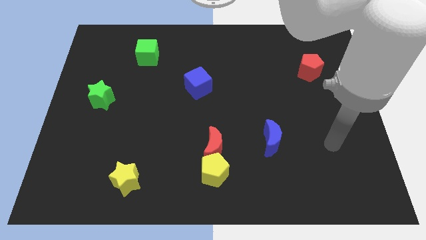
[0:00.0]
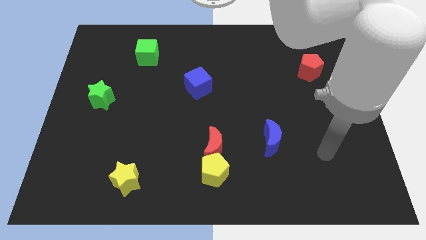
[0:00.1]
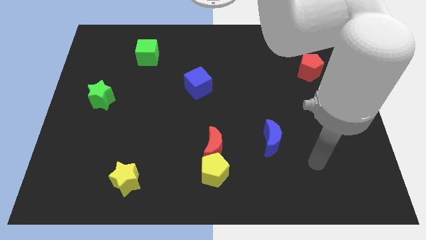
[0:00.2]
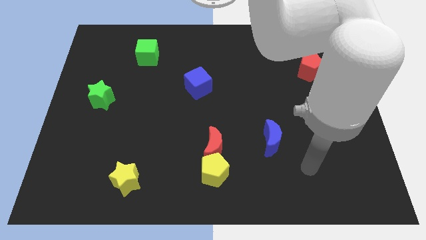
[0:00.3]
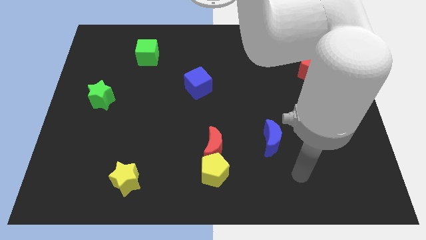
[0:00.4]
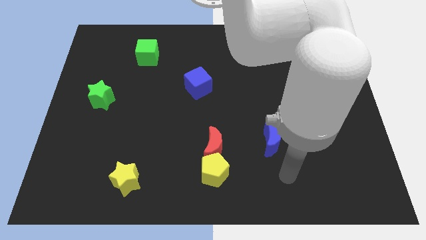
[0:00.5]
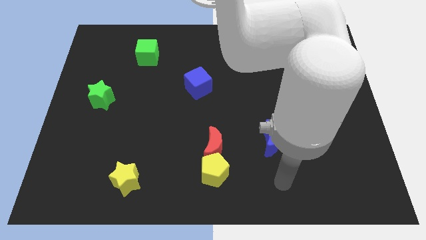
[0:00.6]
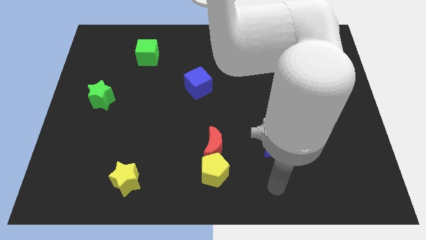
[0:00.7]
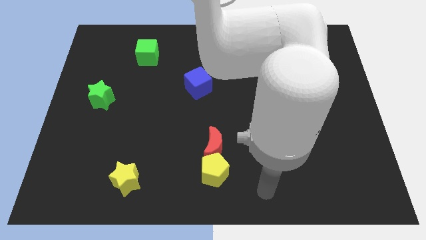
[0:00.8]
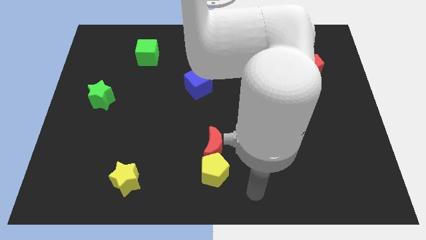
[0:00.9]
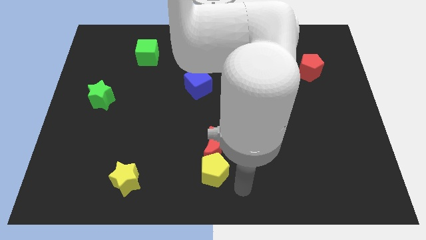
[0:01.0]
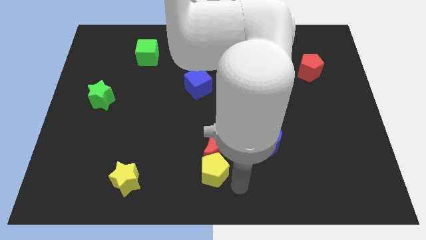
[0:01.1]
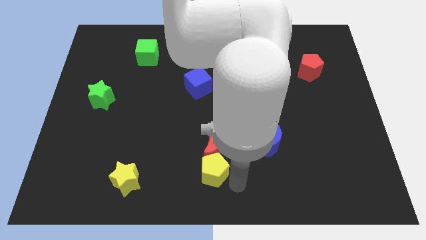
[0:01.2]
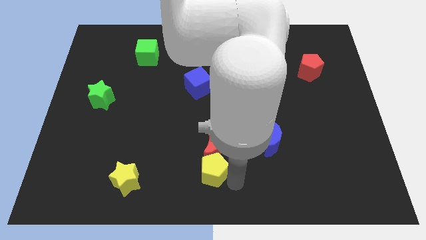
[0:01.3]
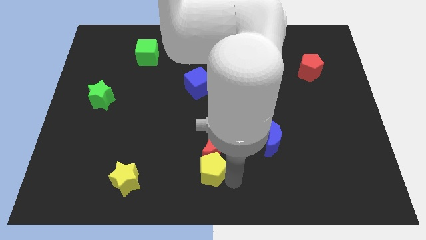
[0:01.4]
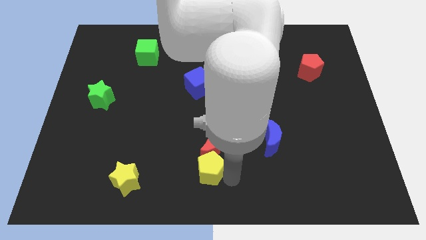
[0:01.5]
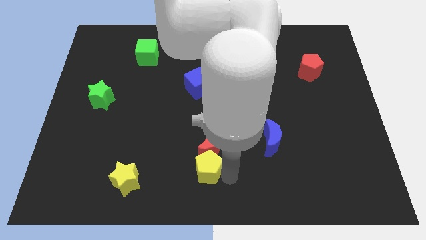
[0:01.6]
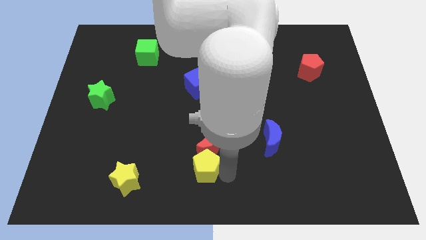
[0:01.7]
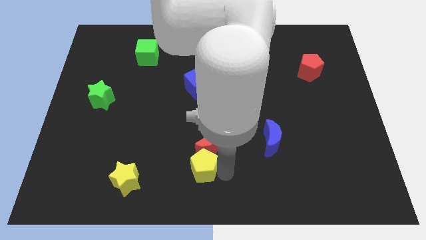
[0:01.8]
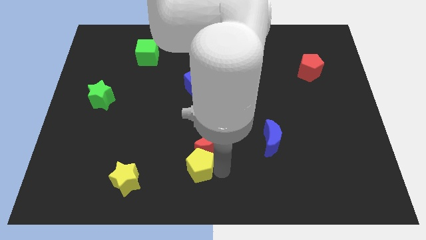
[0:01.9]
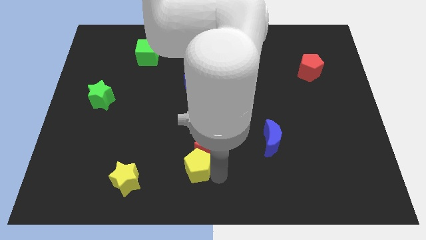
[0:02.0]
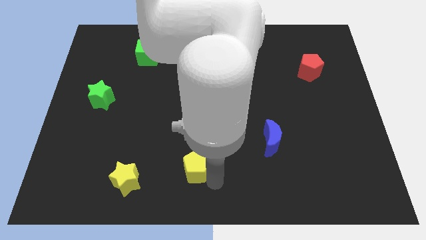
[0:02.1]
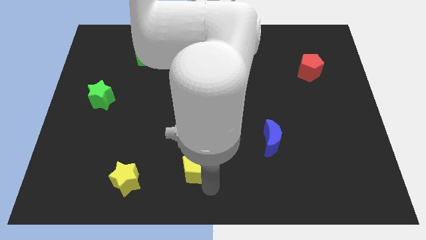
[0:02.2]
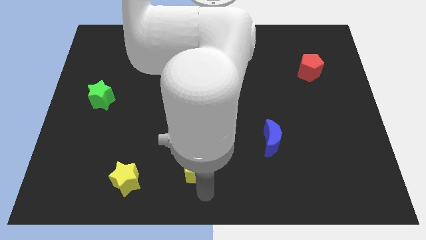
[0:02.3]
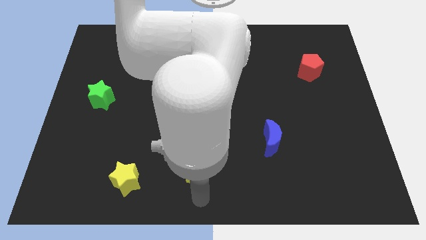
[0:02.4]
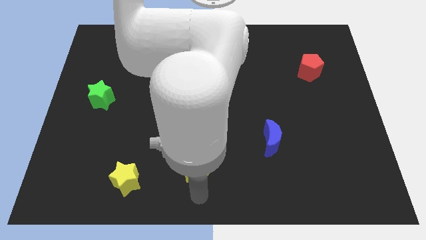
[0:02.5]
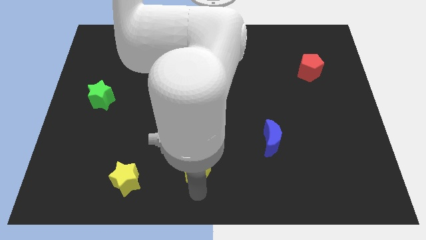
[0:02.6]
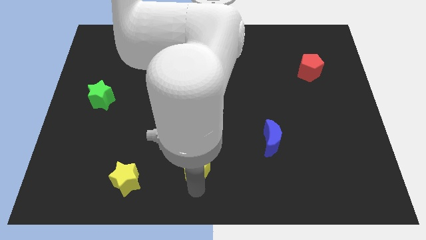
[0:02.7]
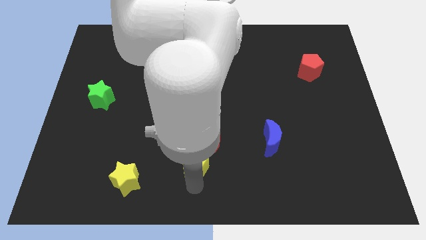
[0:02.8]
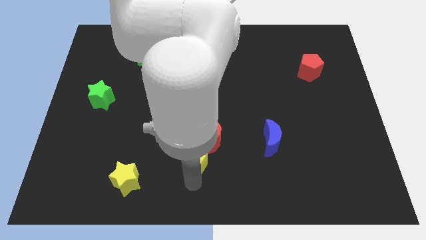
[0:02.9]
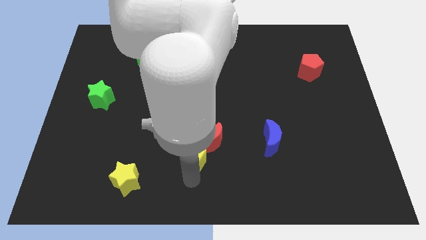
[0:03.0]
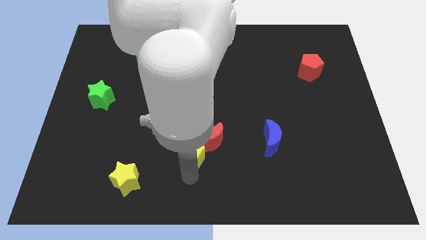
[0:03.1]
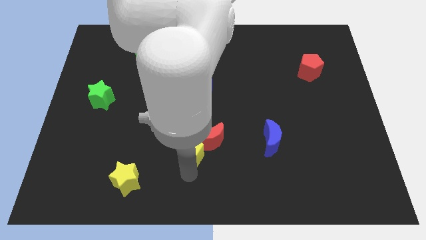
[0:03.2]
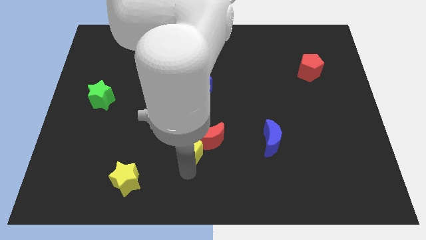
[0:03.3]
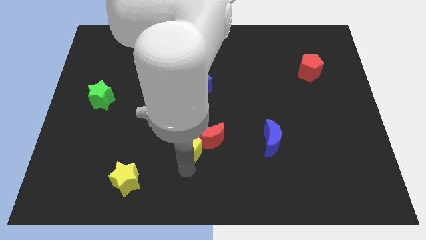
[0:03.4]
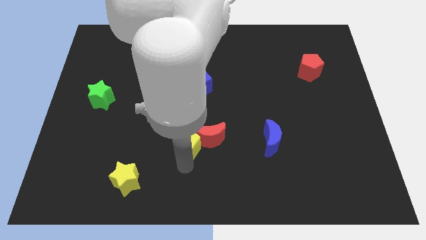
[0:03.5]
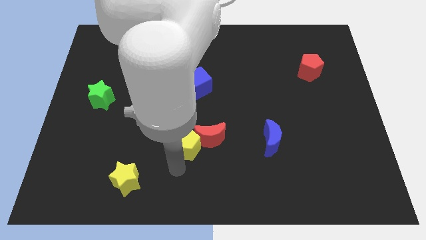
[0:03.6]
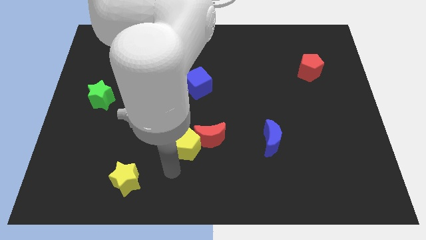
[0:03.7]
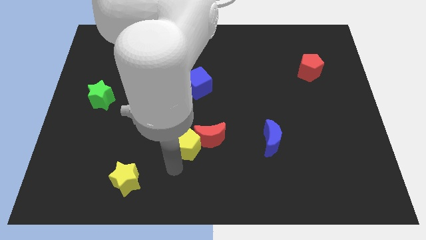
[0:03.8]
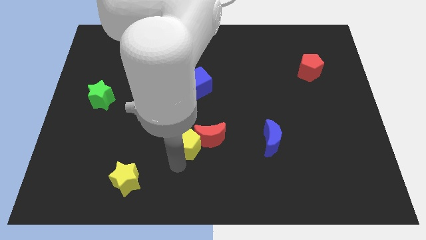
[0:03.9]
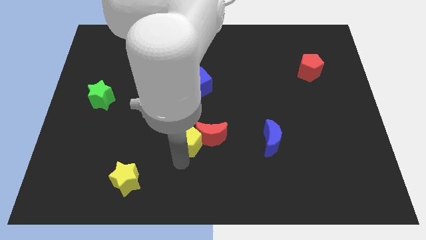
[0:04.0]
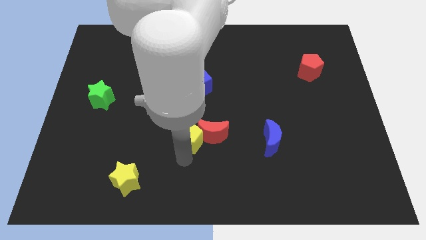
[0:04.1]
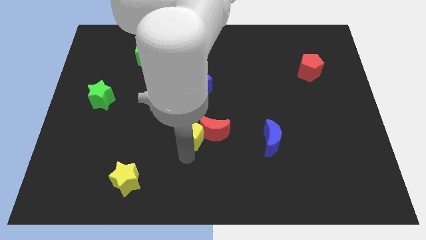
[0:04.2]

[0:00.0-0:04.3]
slightly slide the yellow pentagon up

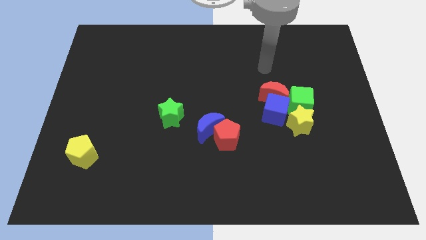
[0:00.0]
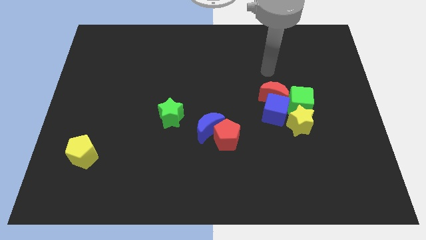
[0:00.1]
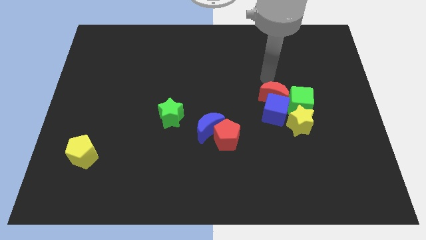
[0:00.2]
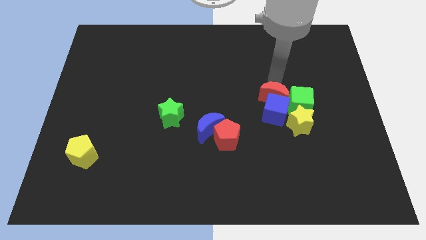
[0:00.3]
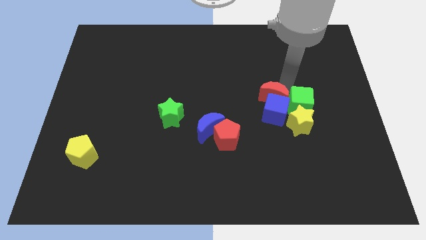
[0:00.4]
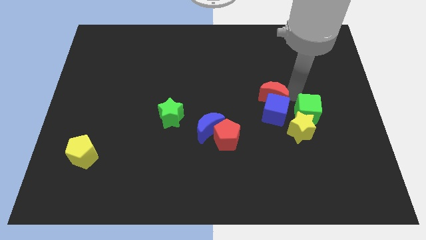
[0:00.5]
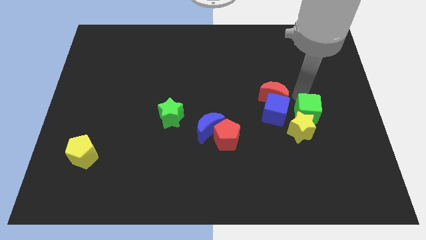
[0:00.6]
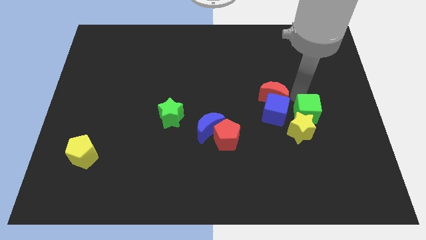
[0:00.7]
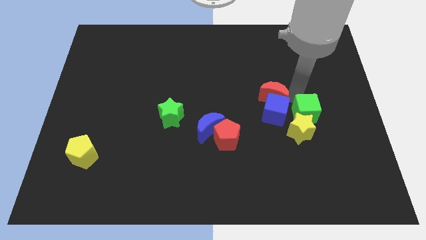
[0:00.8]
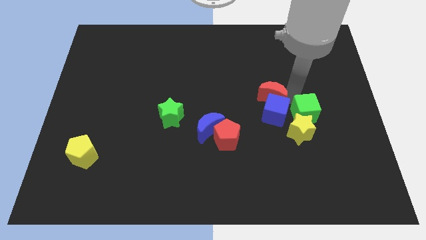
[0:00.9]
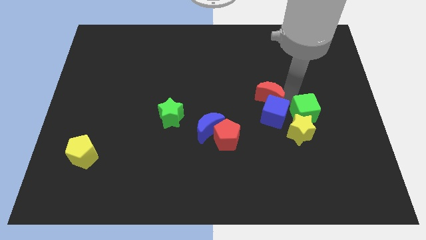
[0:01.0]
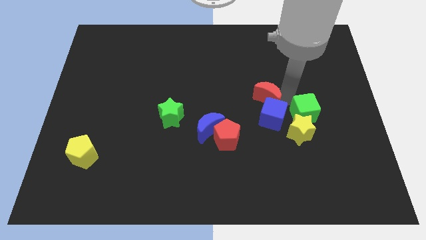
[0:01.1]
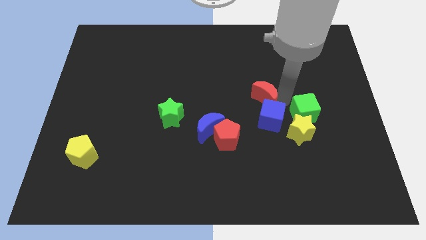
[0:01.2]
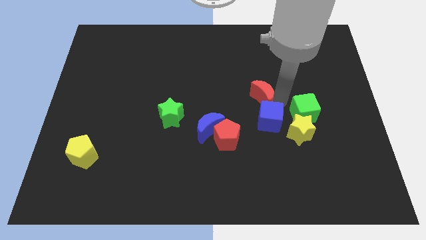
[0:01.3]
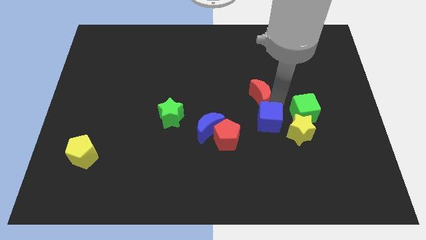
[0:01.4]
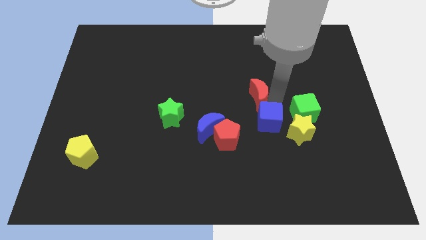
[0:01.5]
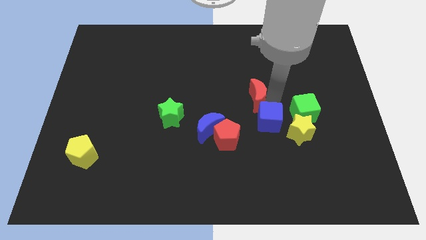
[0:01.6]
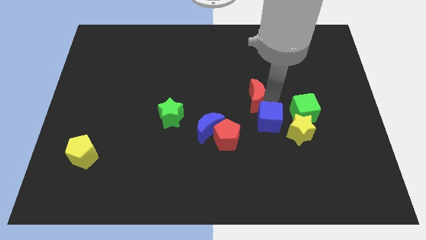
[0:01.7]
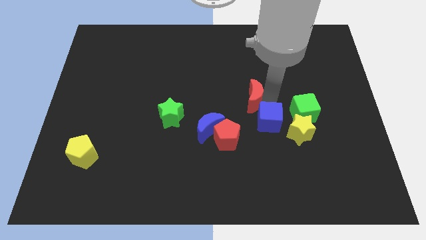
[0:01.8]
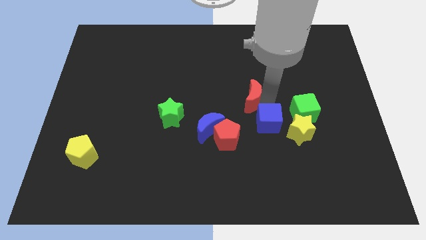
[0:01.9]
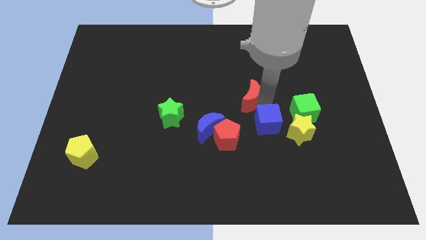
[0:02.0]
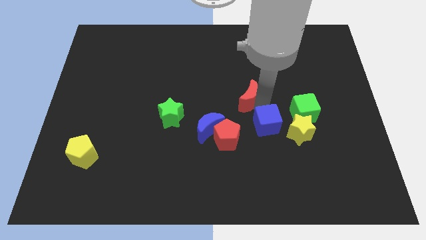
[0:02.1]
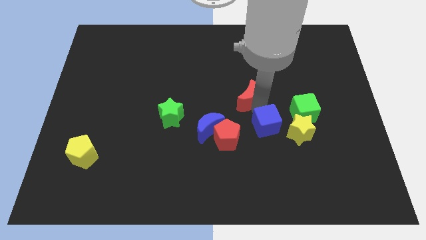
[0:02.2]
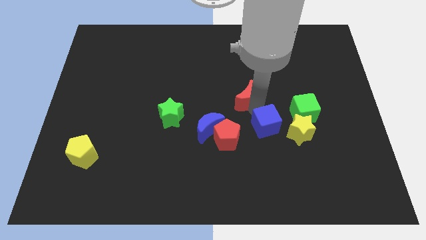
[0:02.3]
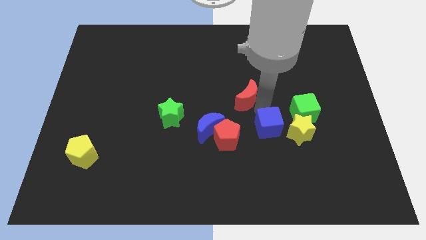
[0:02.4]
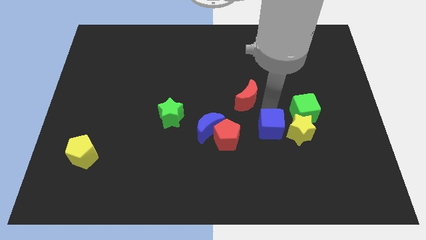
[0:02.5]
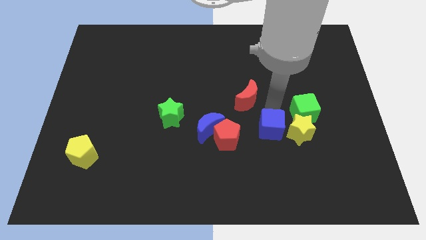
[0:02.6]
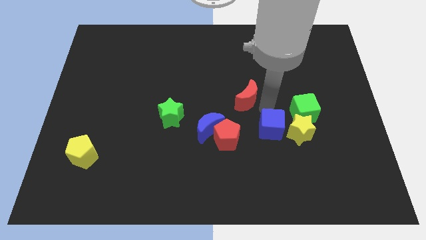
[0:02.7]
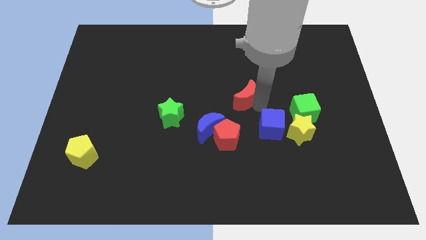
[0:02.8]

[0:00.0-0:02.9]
move the red moon somewhat to the left

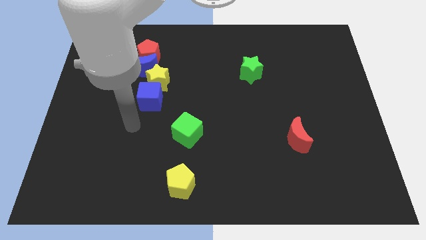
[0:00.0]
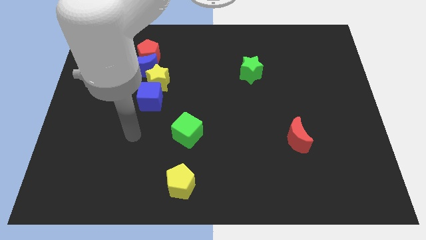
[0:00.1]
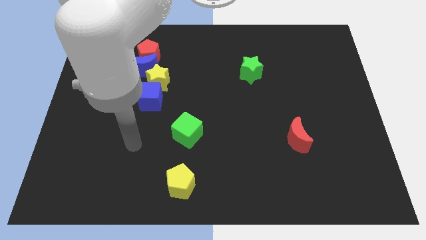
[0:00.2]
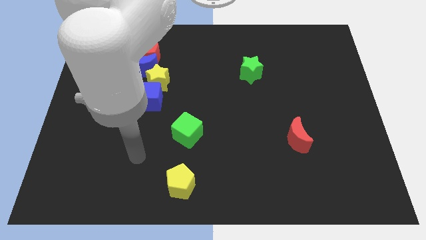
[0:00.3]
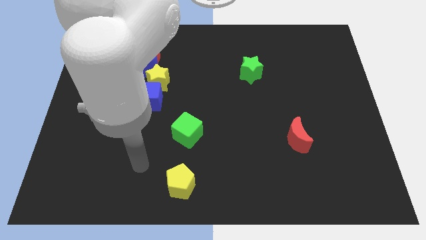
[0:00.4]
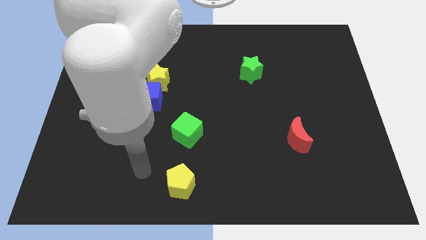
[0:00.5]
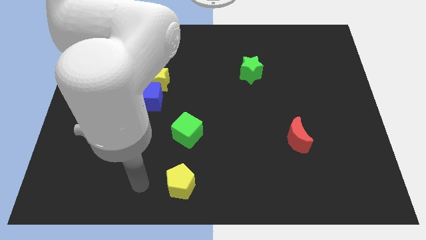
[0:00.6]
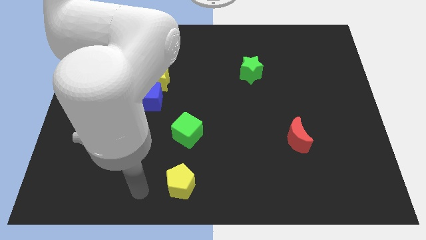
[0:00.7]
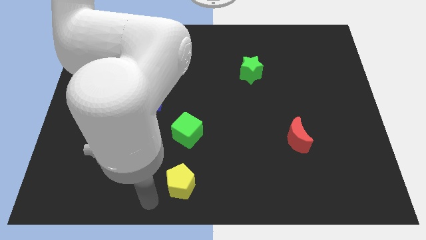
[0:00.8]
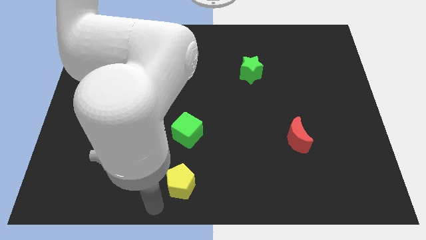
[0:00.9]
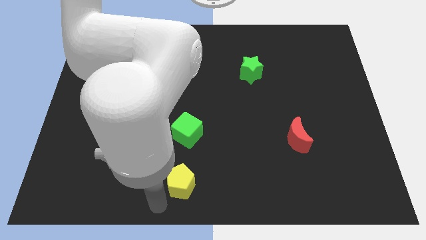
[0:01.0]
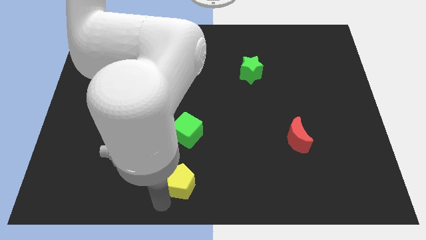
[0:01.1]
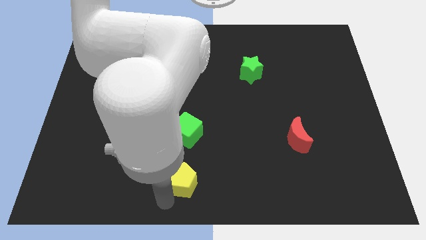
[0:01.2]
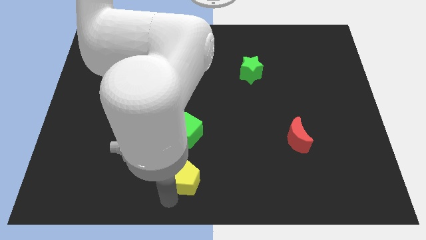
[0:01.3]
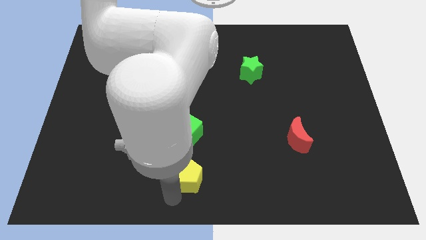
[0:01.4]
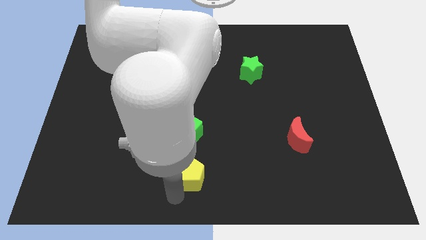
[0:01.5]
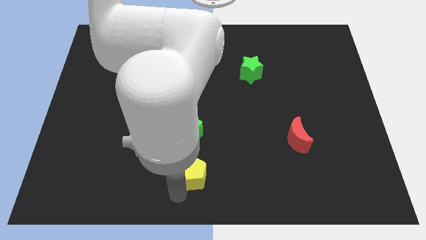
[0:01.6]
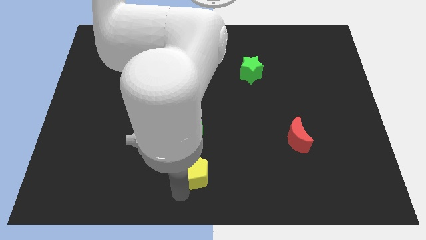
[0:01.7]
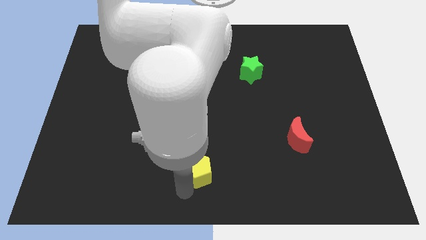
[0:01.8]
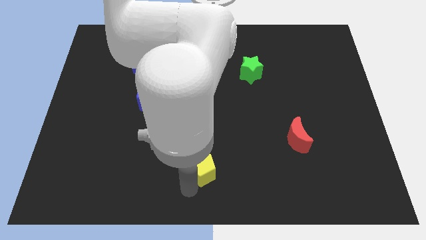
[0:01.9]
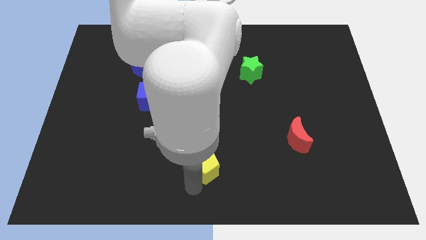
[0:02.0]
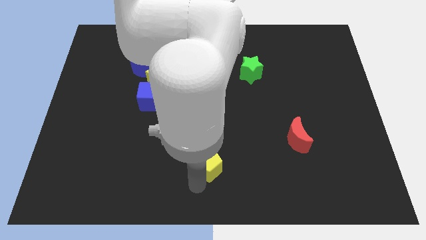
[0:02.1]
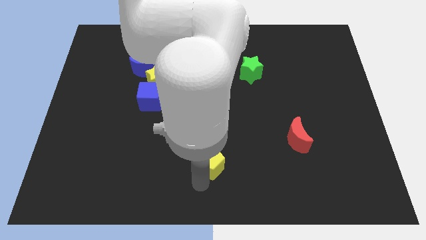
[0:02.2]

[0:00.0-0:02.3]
move the yellow pentagon diagonally up and to the right a little bit
